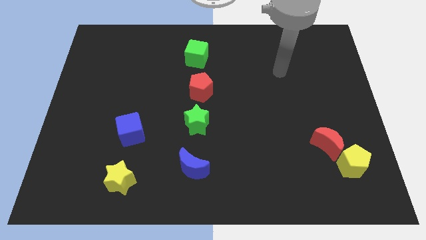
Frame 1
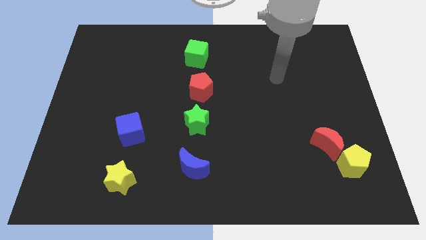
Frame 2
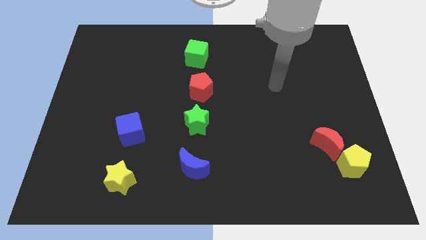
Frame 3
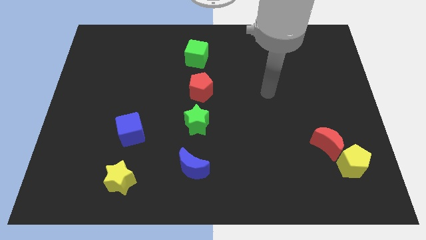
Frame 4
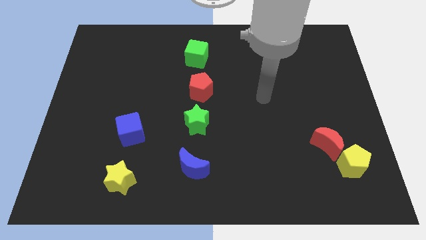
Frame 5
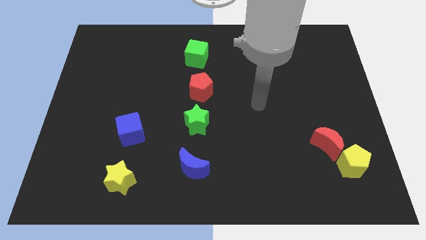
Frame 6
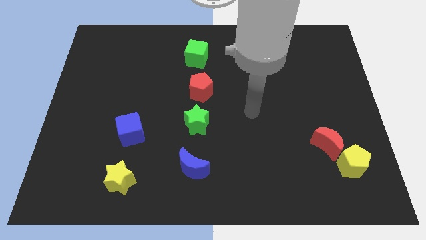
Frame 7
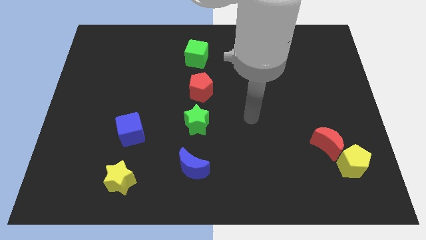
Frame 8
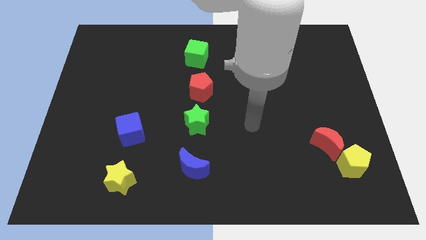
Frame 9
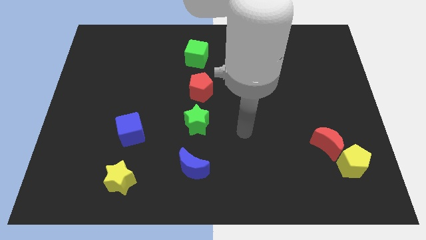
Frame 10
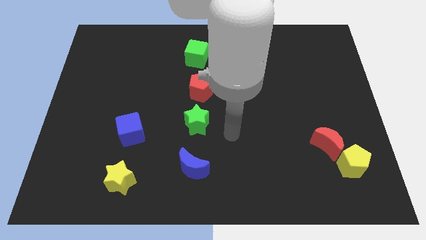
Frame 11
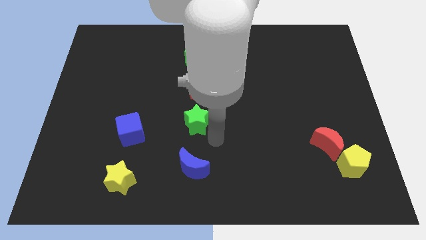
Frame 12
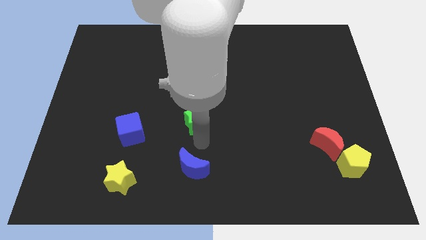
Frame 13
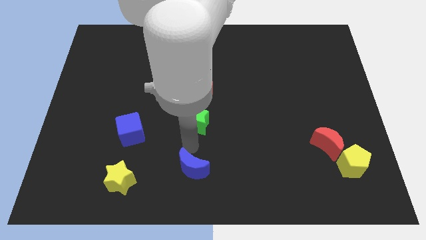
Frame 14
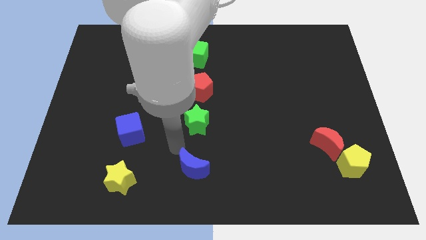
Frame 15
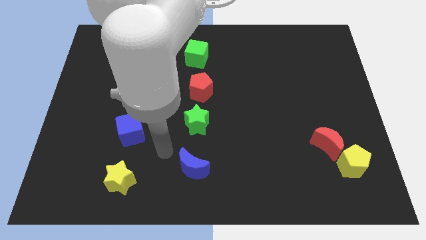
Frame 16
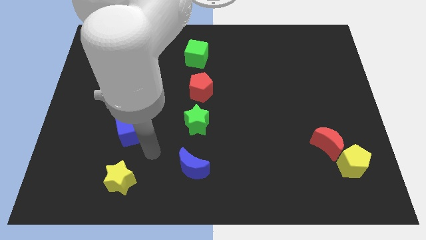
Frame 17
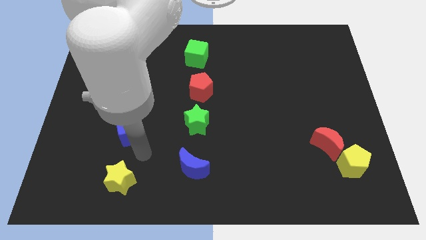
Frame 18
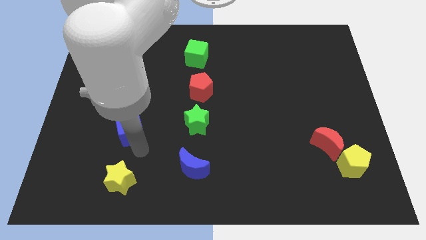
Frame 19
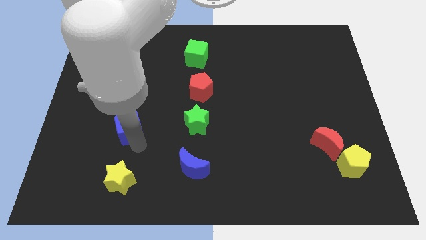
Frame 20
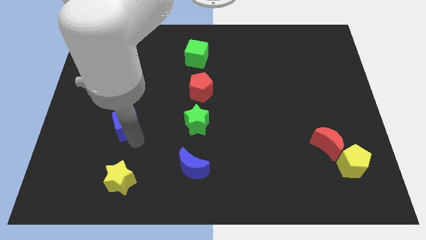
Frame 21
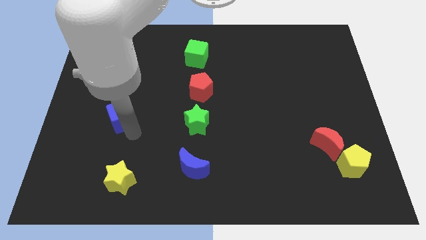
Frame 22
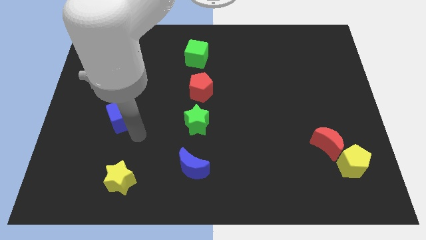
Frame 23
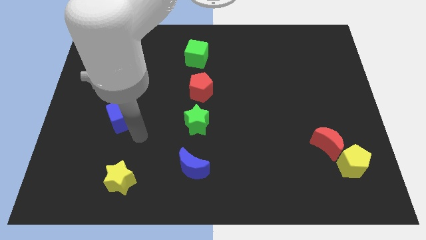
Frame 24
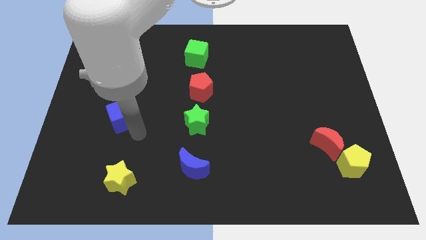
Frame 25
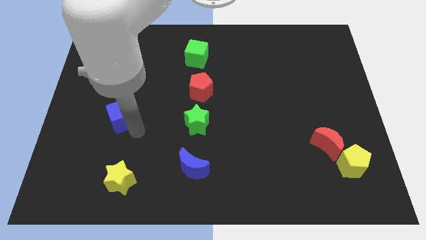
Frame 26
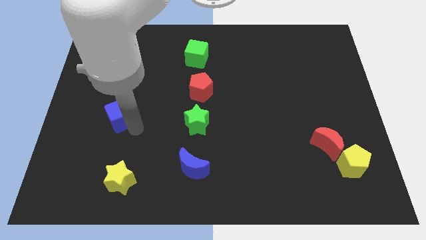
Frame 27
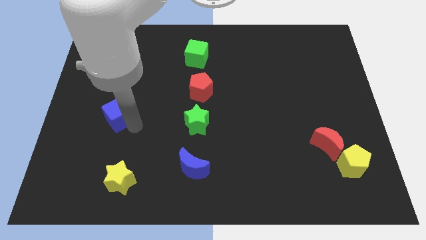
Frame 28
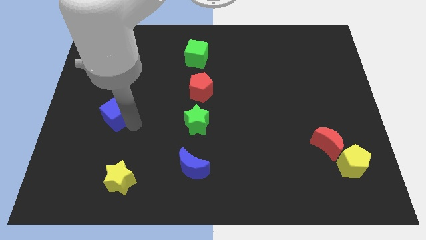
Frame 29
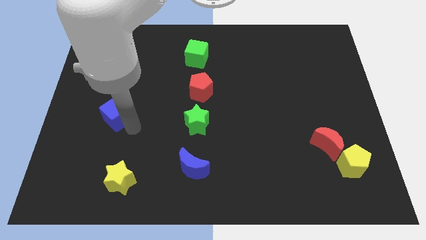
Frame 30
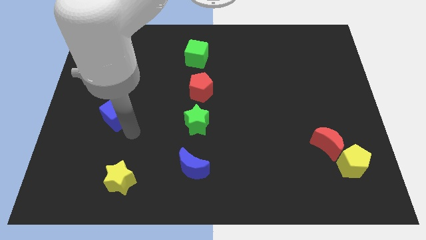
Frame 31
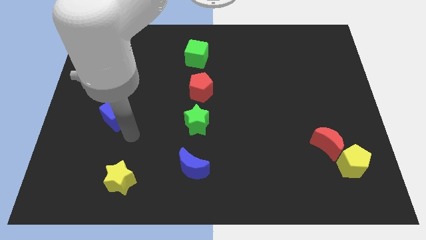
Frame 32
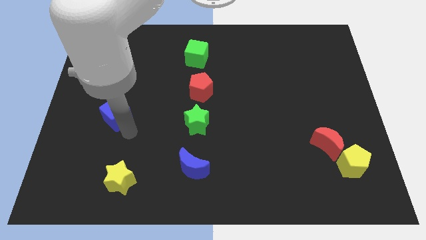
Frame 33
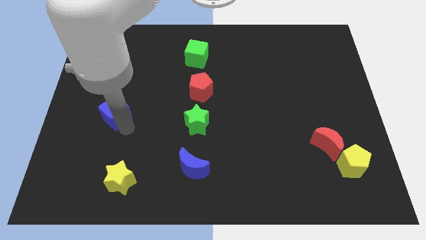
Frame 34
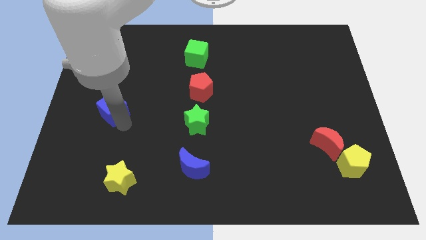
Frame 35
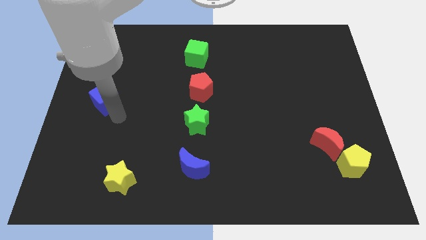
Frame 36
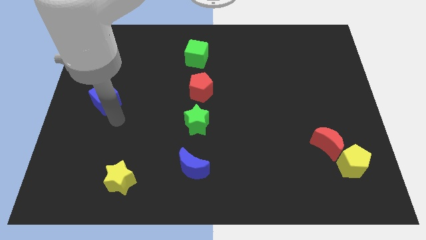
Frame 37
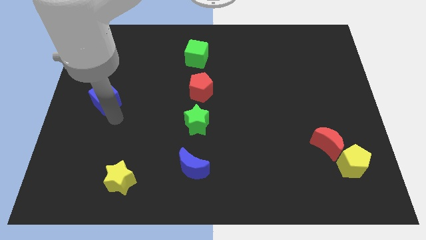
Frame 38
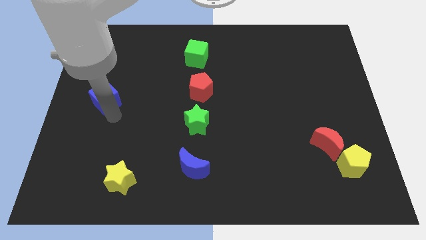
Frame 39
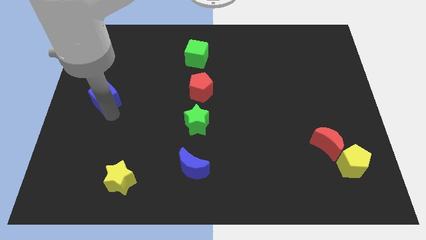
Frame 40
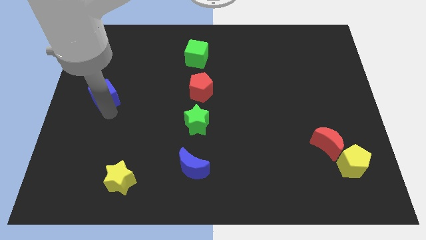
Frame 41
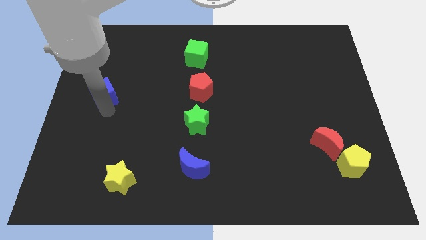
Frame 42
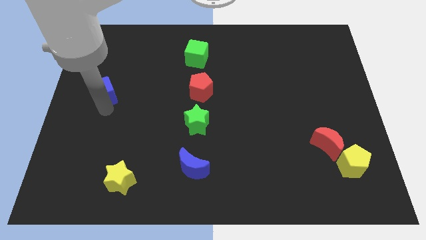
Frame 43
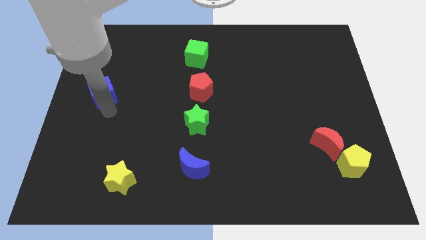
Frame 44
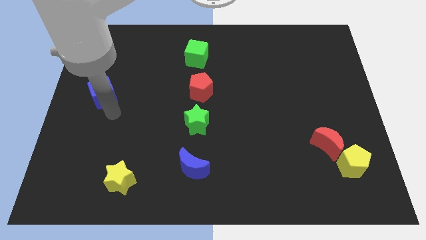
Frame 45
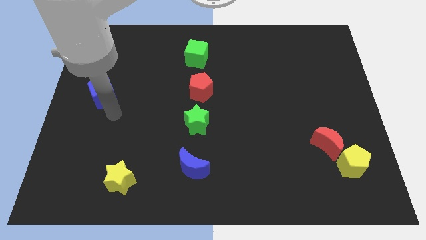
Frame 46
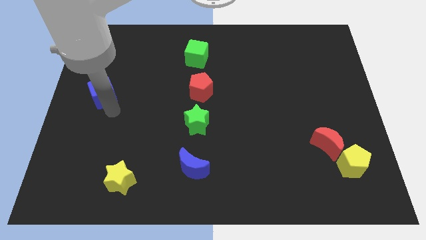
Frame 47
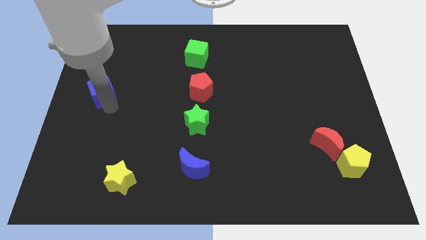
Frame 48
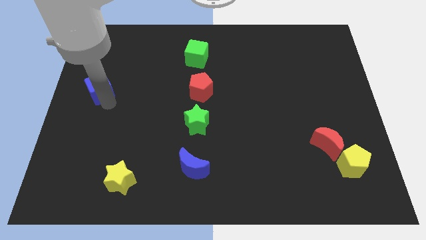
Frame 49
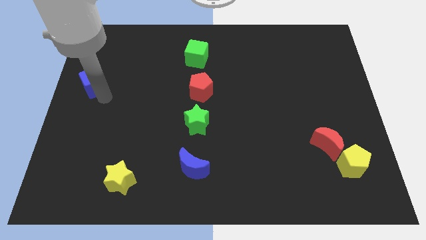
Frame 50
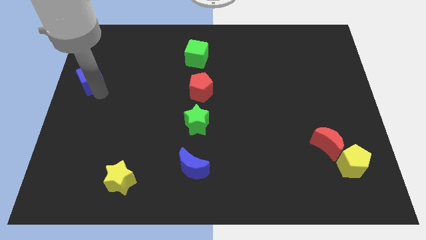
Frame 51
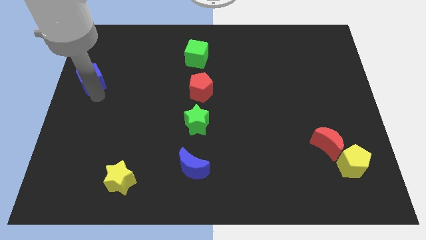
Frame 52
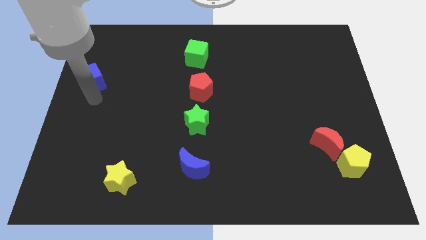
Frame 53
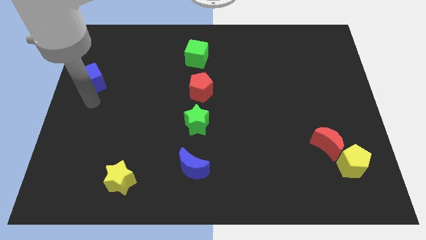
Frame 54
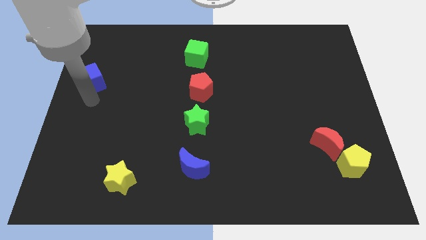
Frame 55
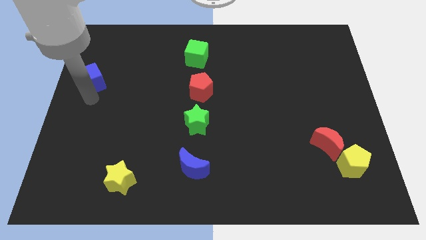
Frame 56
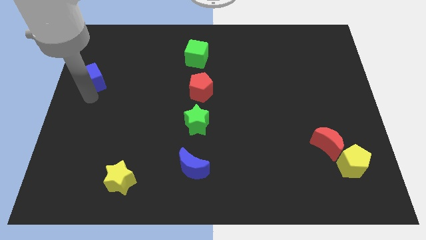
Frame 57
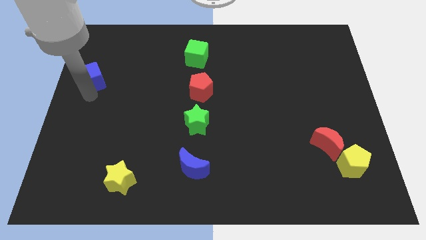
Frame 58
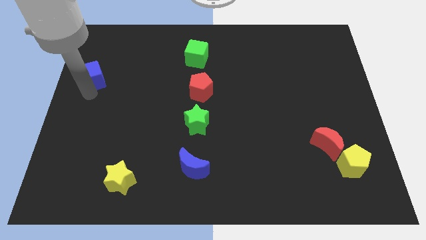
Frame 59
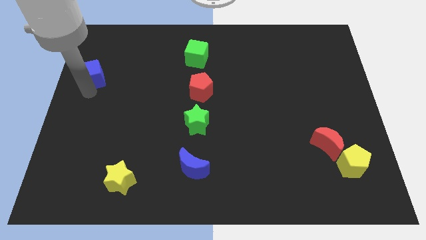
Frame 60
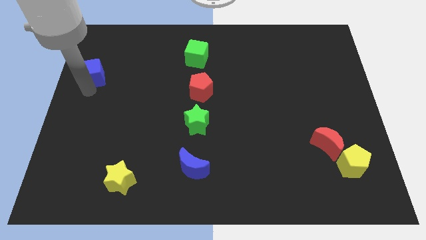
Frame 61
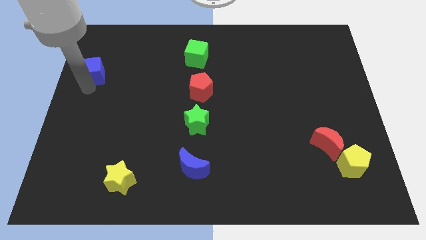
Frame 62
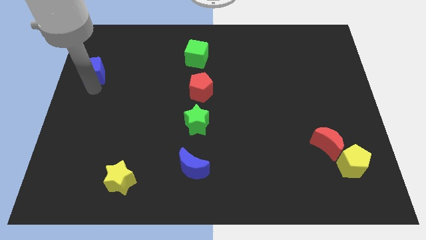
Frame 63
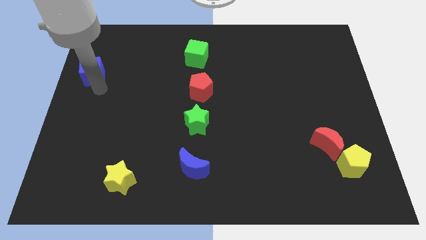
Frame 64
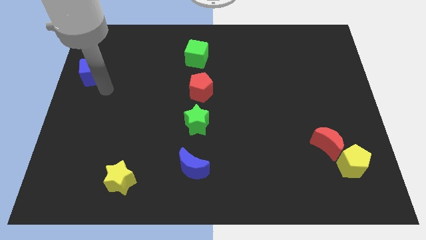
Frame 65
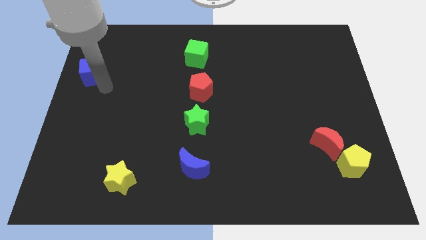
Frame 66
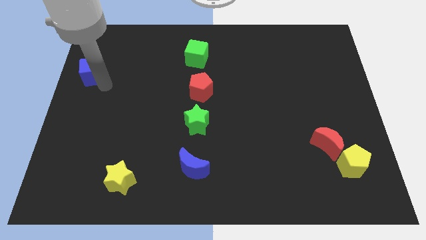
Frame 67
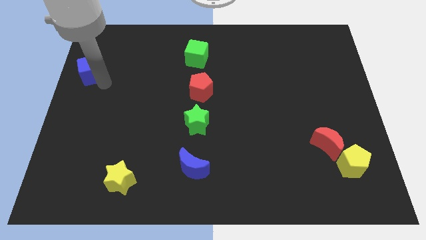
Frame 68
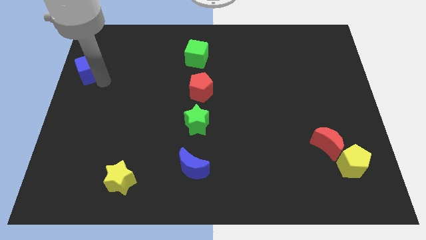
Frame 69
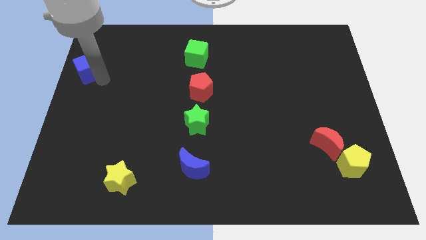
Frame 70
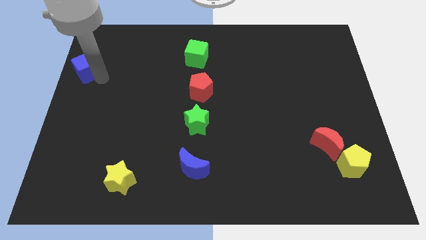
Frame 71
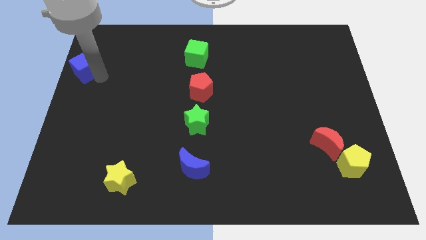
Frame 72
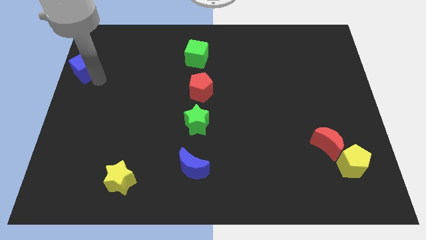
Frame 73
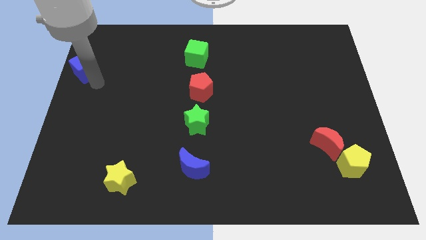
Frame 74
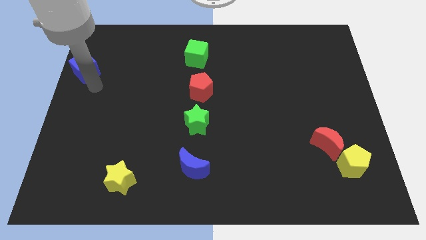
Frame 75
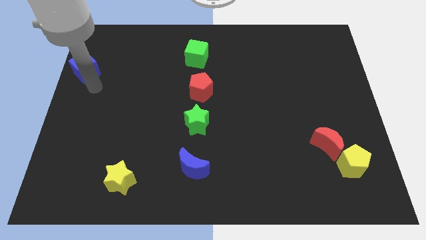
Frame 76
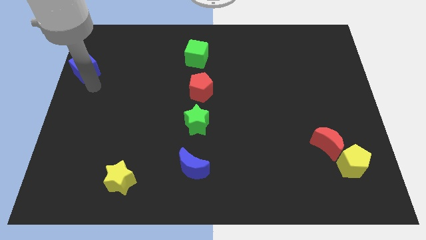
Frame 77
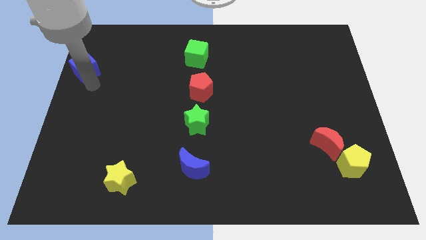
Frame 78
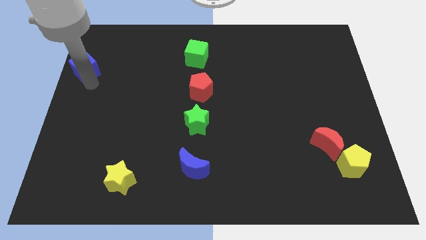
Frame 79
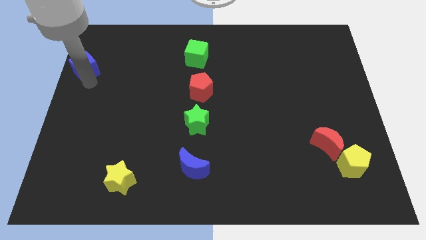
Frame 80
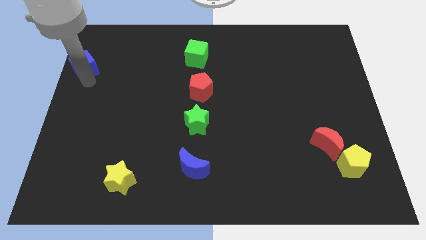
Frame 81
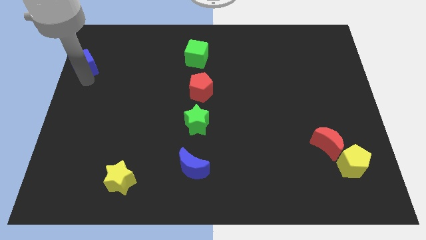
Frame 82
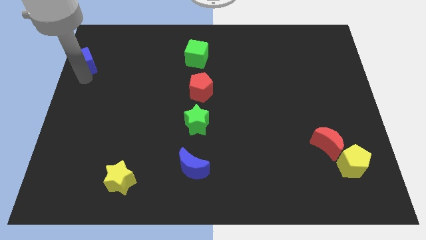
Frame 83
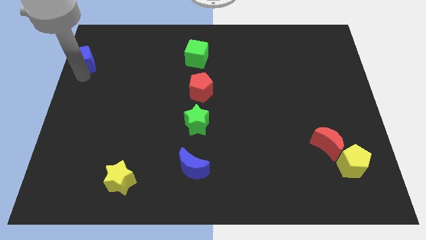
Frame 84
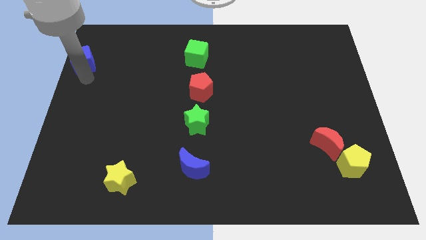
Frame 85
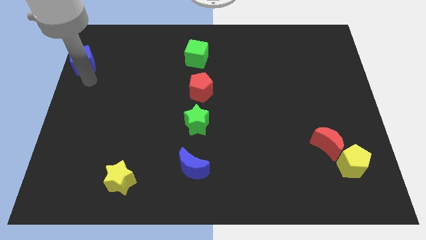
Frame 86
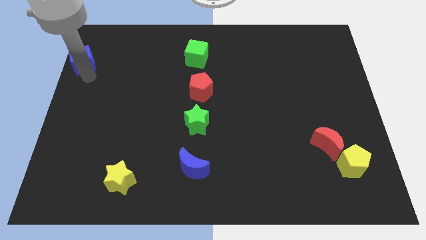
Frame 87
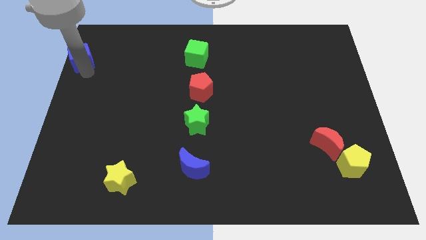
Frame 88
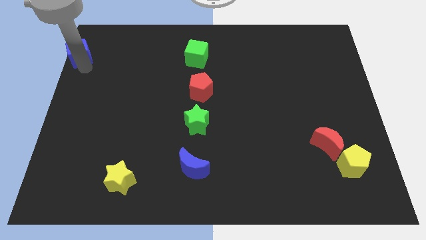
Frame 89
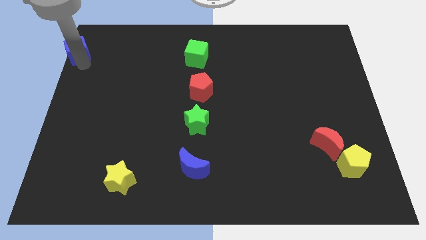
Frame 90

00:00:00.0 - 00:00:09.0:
push the blue cube to the upper left corner
